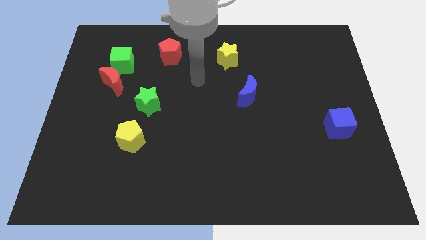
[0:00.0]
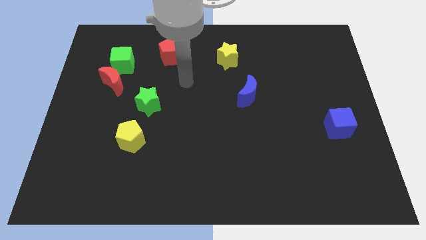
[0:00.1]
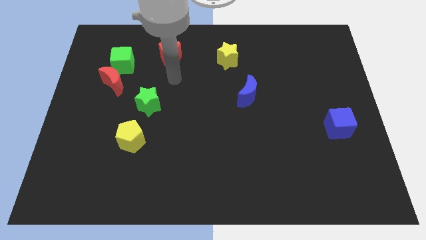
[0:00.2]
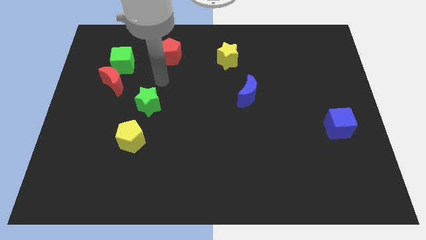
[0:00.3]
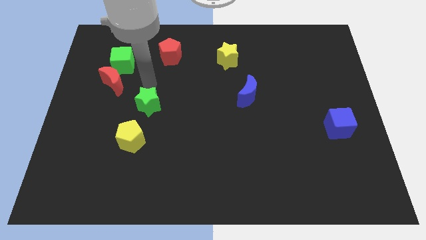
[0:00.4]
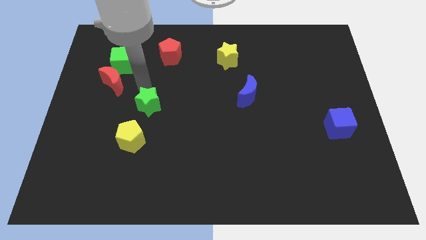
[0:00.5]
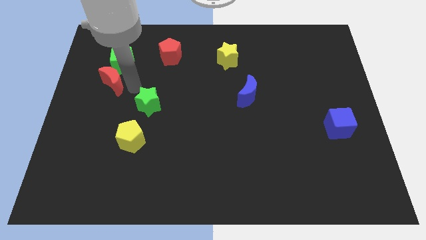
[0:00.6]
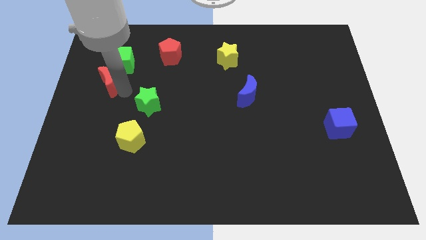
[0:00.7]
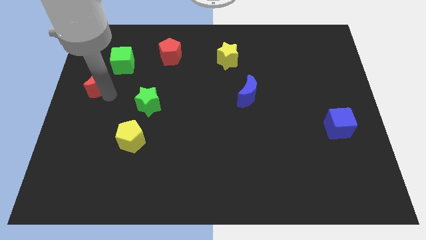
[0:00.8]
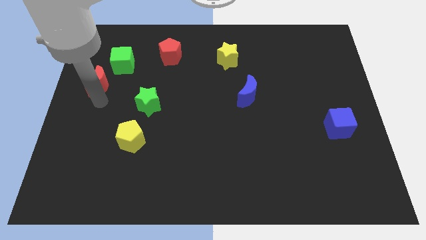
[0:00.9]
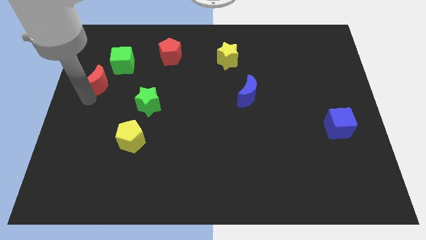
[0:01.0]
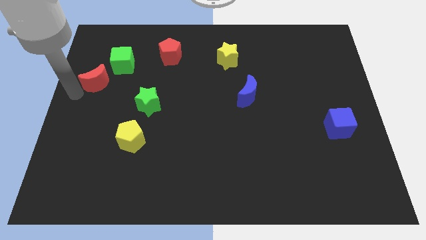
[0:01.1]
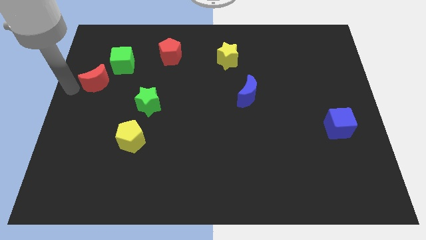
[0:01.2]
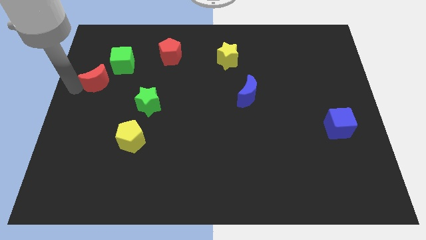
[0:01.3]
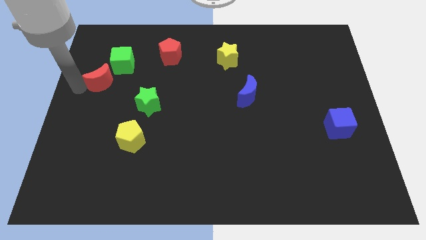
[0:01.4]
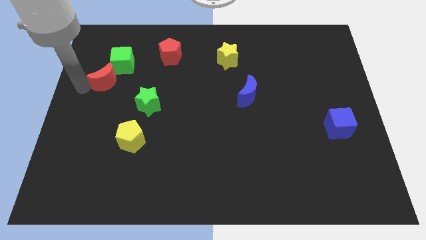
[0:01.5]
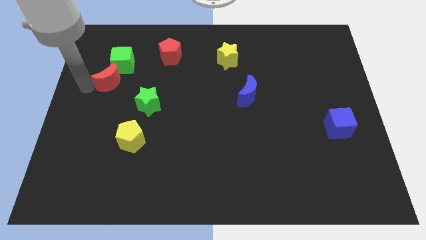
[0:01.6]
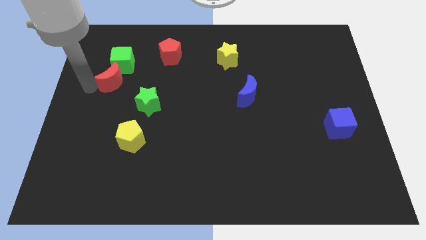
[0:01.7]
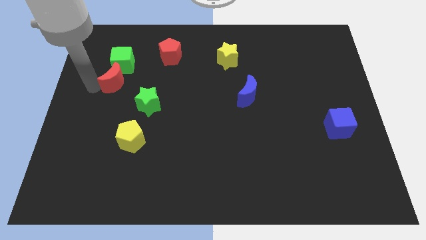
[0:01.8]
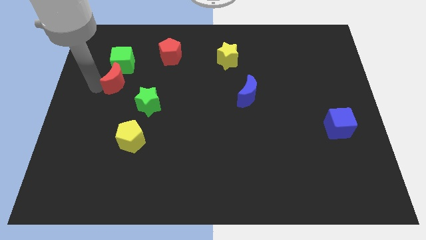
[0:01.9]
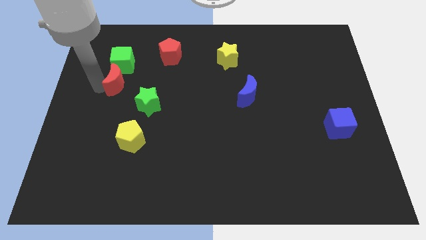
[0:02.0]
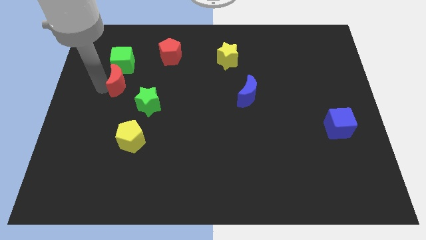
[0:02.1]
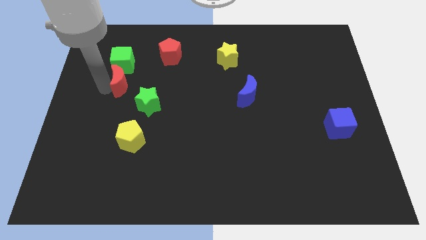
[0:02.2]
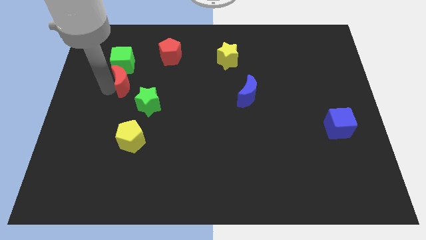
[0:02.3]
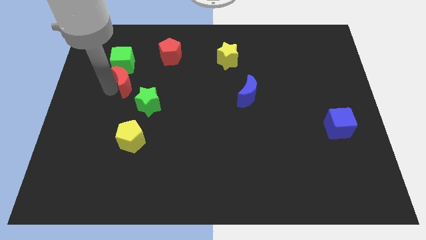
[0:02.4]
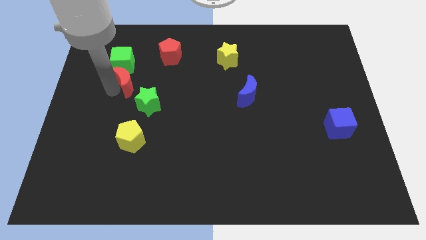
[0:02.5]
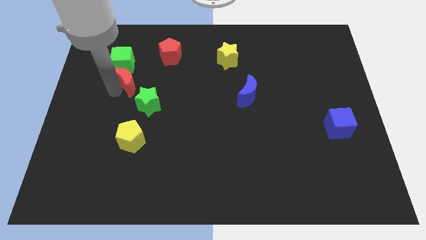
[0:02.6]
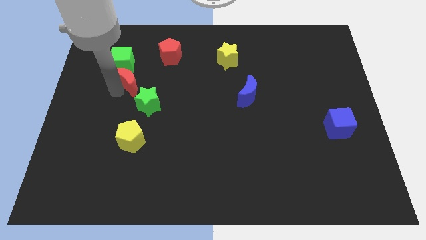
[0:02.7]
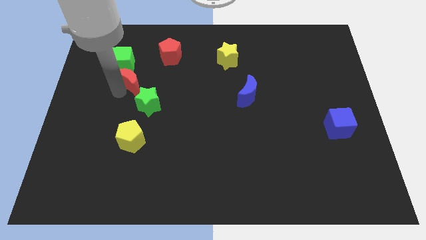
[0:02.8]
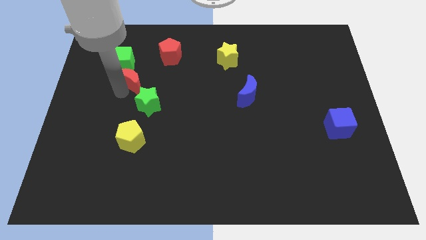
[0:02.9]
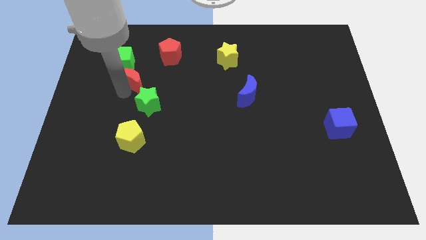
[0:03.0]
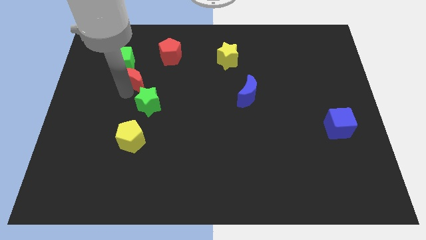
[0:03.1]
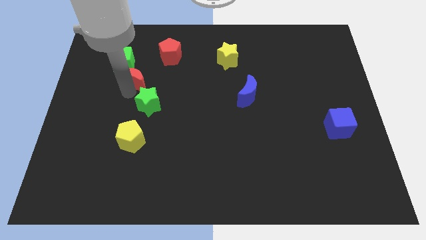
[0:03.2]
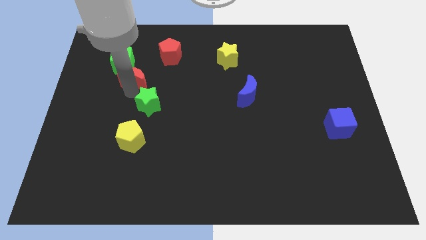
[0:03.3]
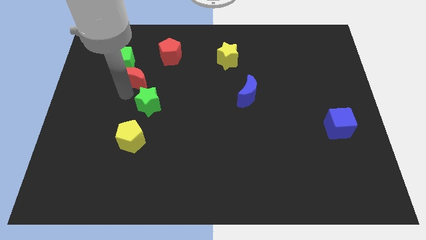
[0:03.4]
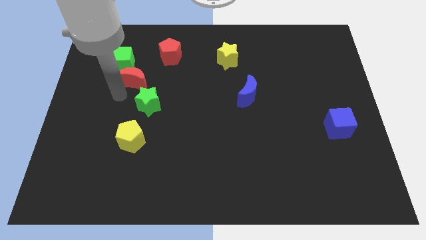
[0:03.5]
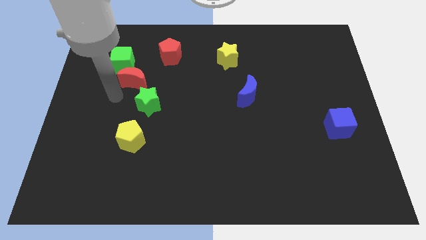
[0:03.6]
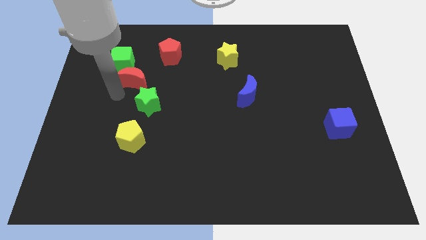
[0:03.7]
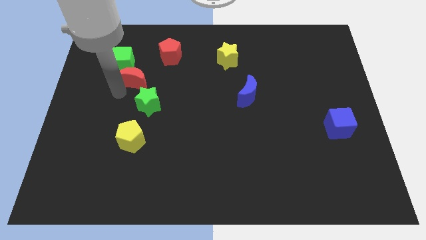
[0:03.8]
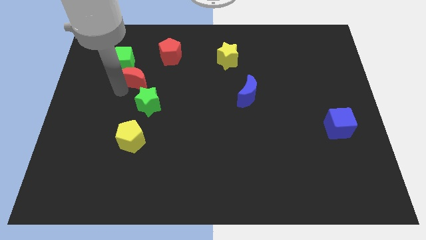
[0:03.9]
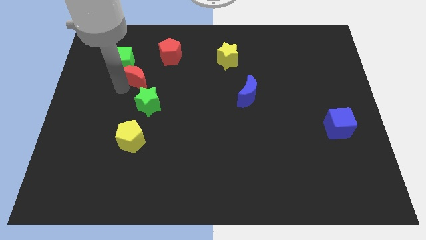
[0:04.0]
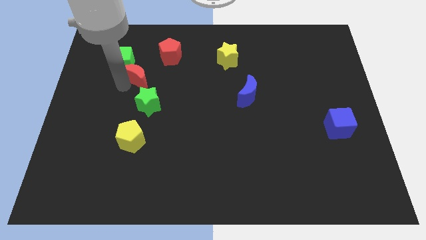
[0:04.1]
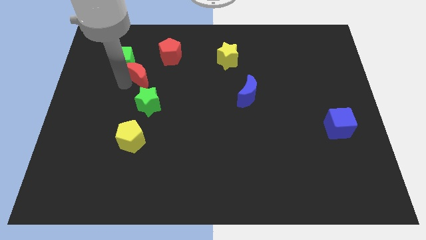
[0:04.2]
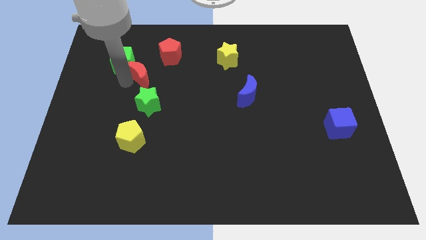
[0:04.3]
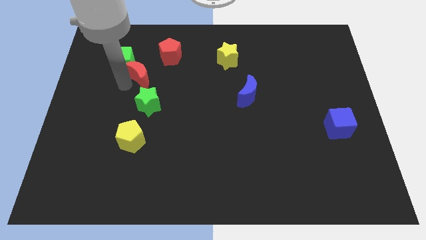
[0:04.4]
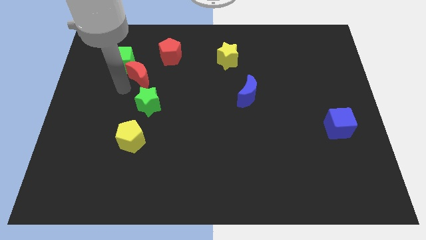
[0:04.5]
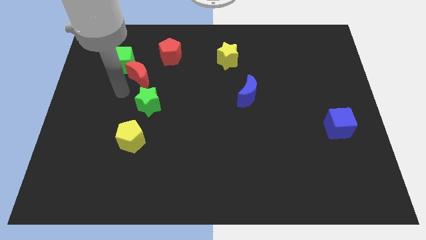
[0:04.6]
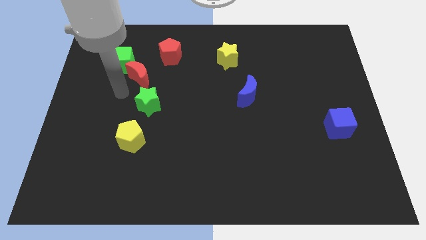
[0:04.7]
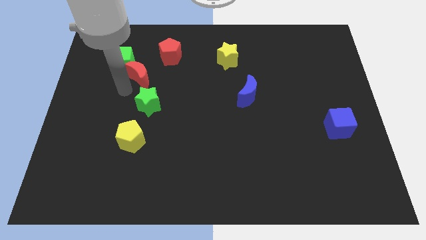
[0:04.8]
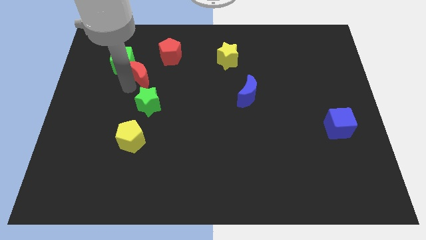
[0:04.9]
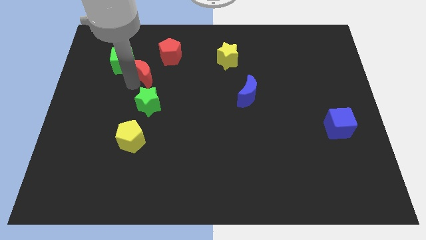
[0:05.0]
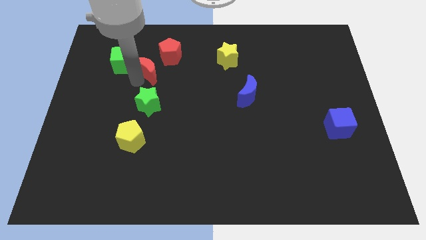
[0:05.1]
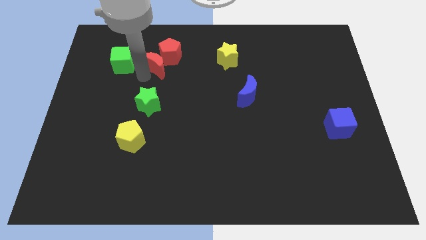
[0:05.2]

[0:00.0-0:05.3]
push the red moon towards the red pentagon

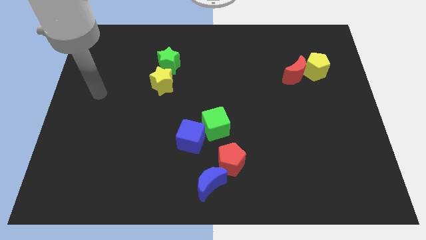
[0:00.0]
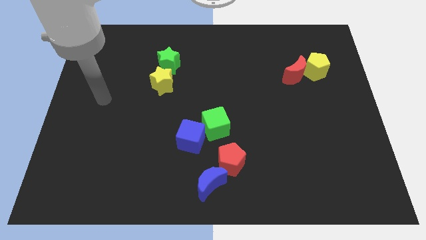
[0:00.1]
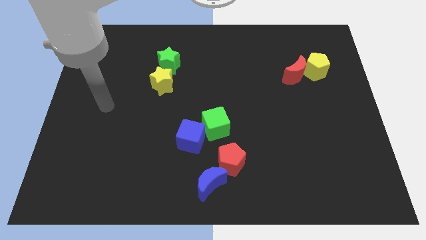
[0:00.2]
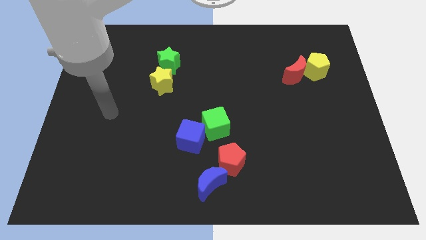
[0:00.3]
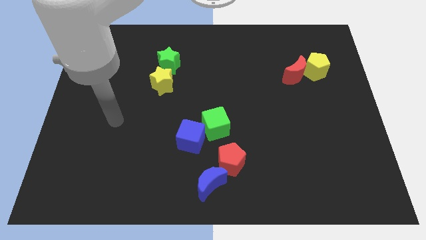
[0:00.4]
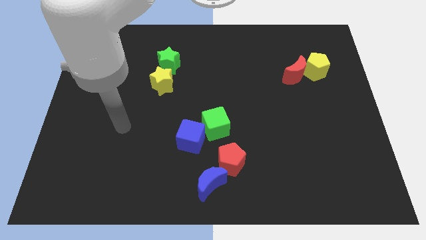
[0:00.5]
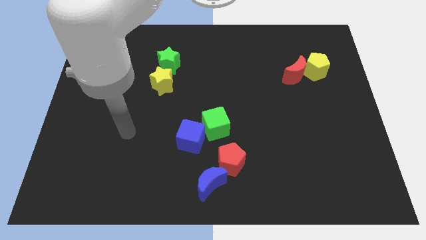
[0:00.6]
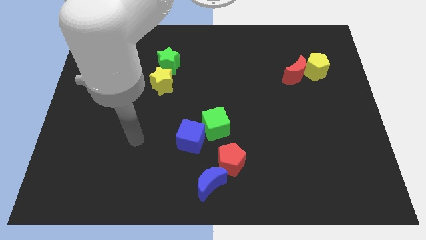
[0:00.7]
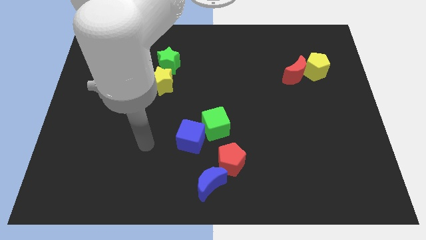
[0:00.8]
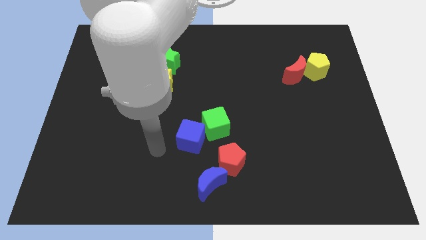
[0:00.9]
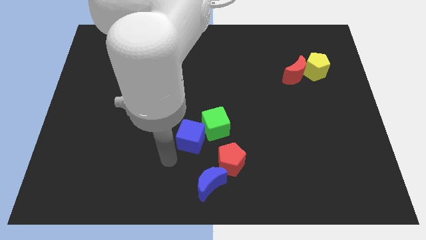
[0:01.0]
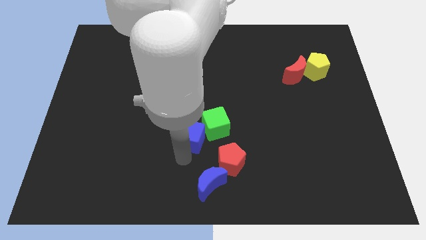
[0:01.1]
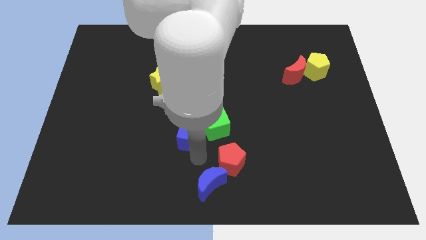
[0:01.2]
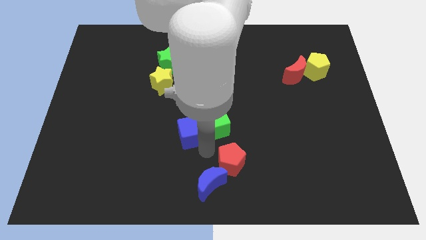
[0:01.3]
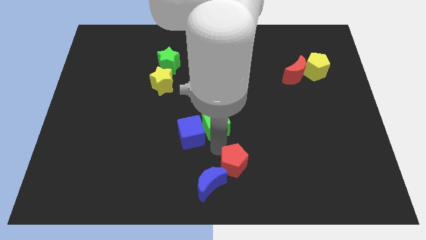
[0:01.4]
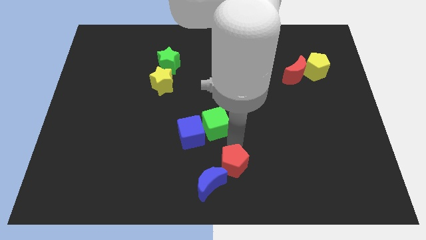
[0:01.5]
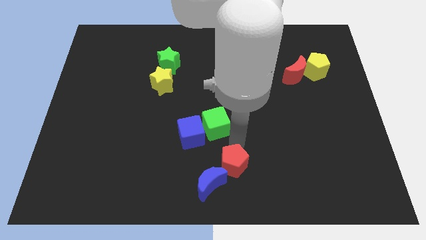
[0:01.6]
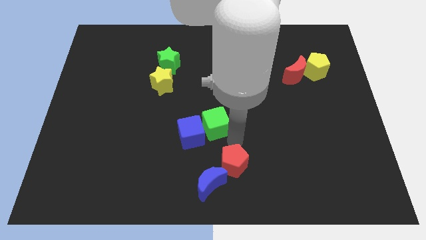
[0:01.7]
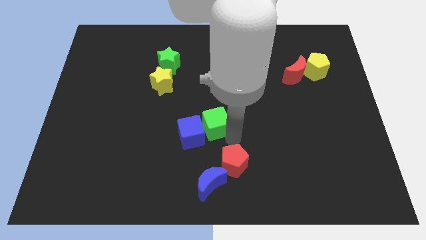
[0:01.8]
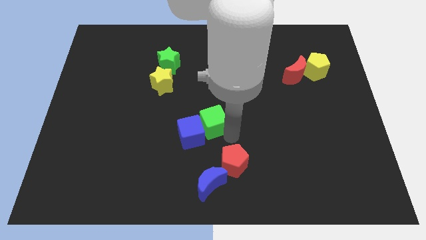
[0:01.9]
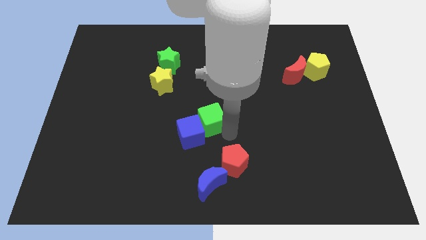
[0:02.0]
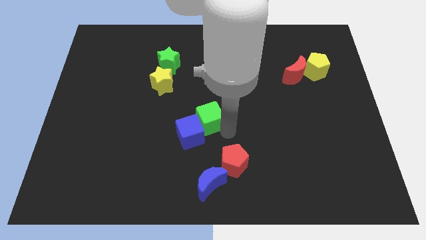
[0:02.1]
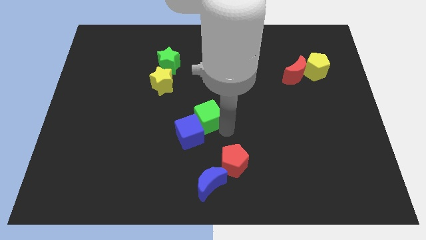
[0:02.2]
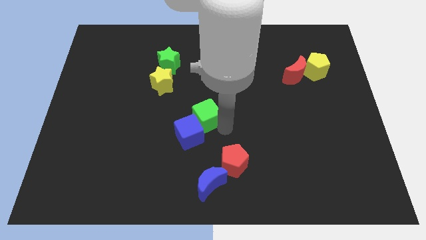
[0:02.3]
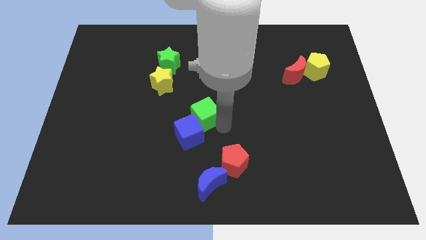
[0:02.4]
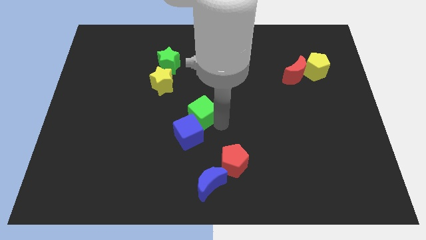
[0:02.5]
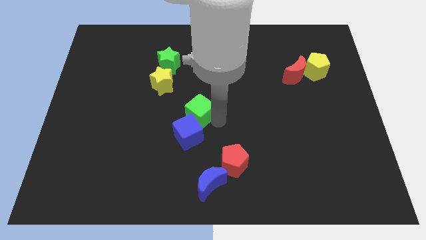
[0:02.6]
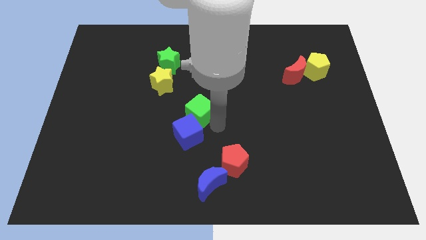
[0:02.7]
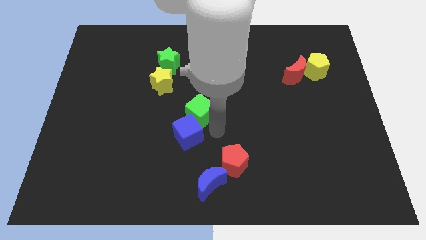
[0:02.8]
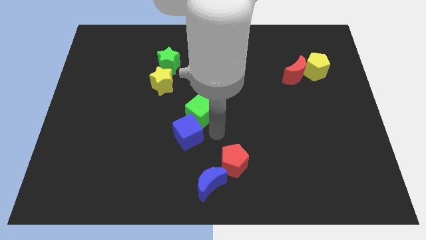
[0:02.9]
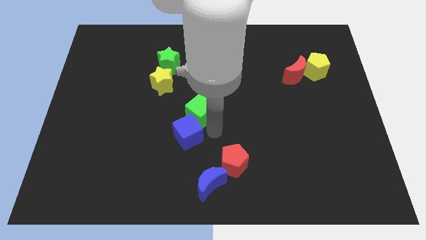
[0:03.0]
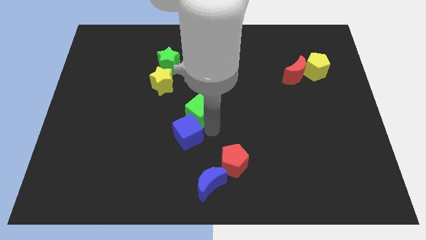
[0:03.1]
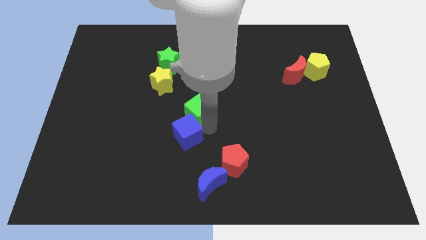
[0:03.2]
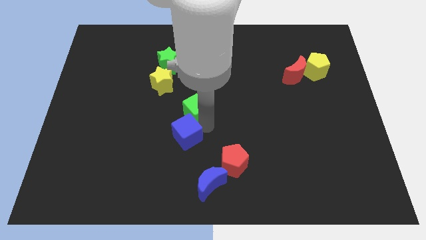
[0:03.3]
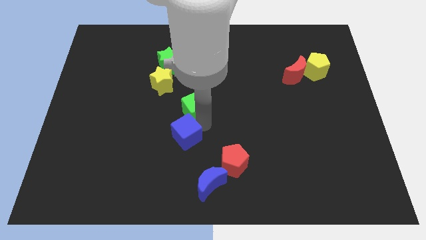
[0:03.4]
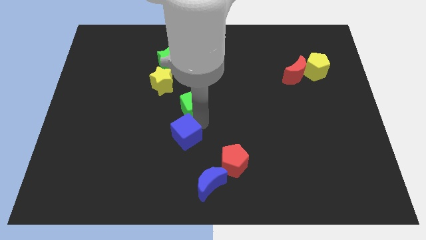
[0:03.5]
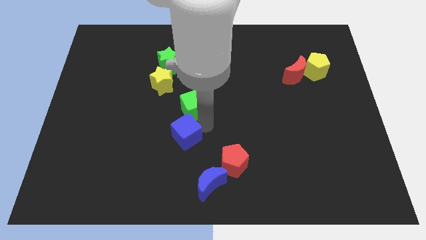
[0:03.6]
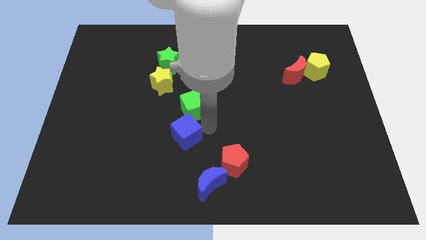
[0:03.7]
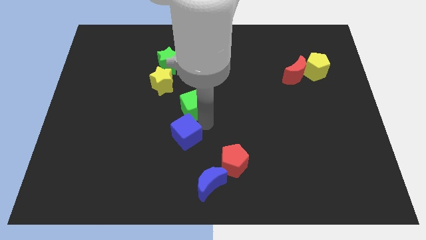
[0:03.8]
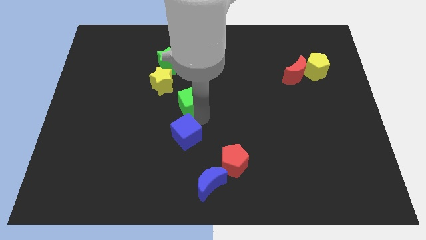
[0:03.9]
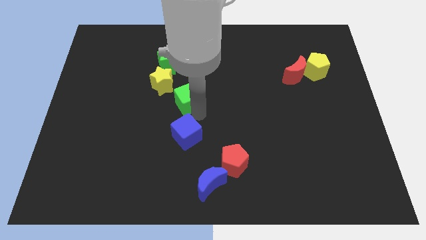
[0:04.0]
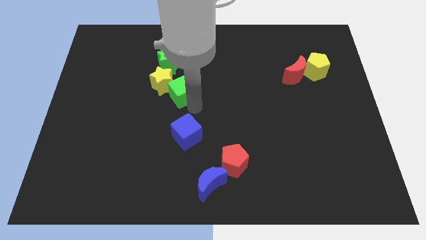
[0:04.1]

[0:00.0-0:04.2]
push the green cube next to the yellow star
